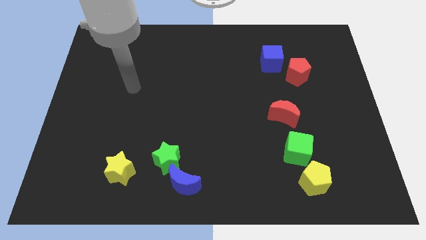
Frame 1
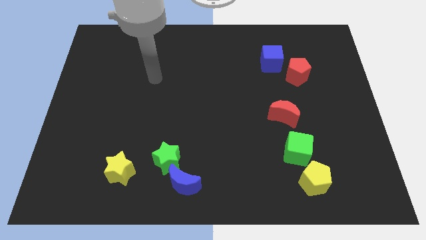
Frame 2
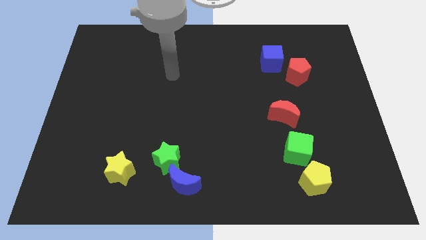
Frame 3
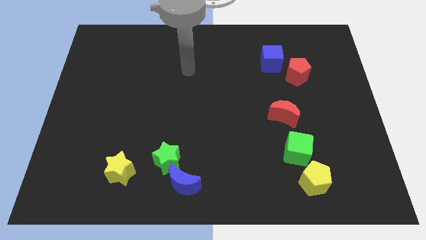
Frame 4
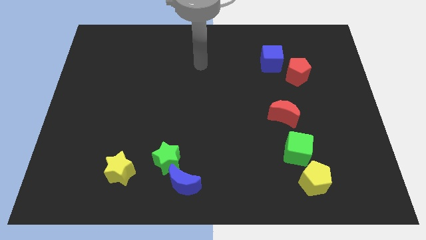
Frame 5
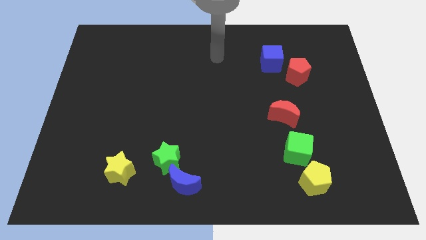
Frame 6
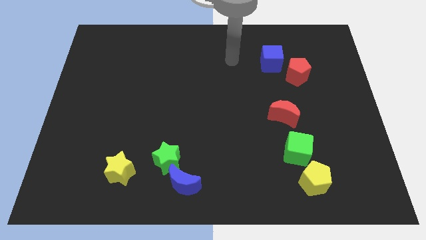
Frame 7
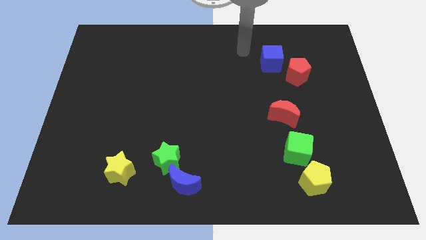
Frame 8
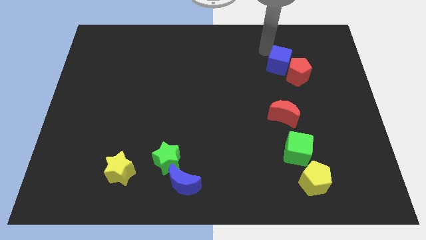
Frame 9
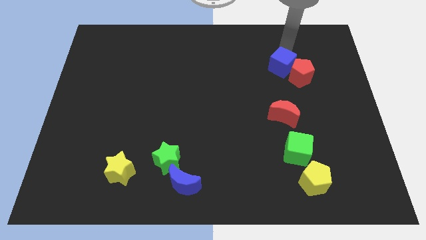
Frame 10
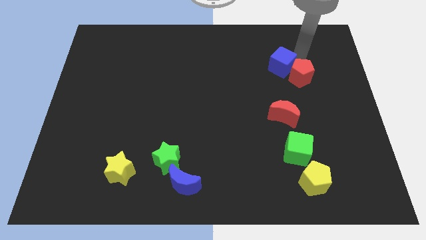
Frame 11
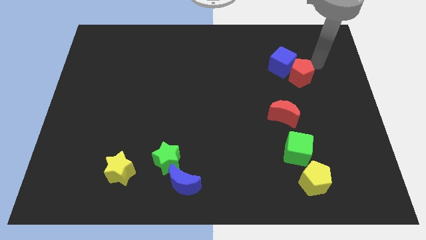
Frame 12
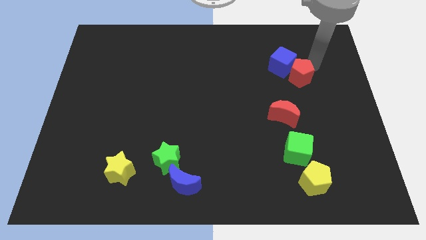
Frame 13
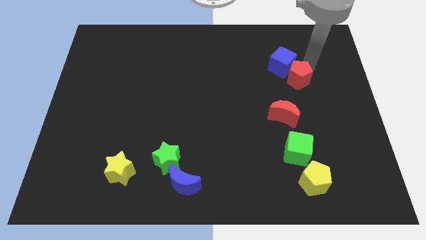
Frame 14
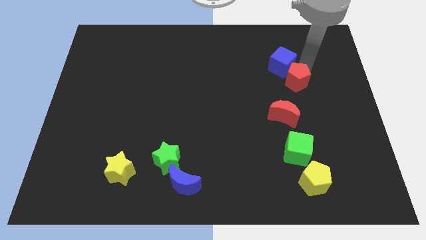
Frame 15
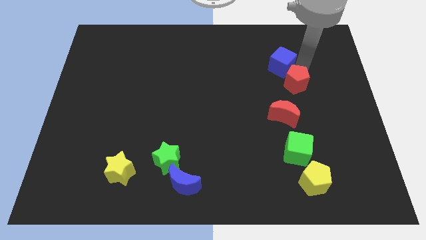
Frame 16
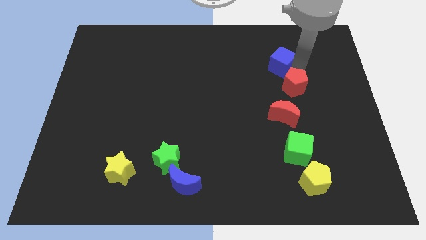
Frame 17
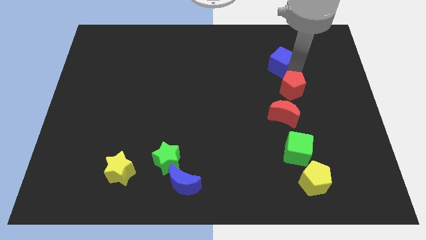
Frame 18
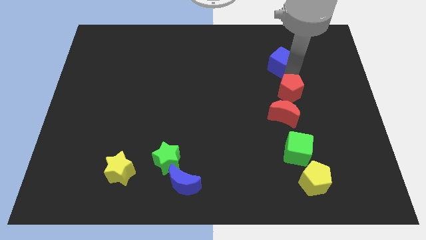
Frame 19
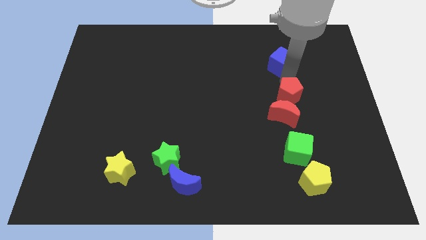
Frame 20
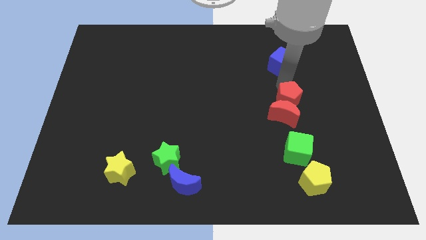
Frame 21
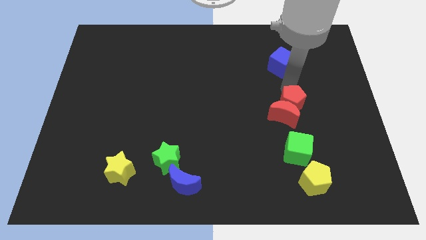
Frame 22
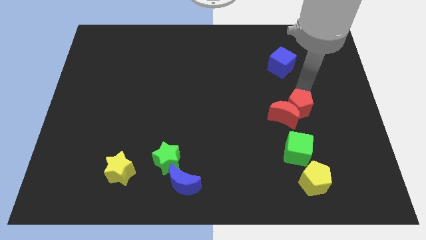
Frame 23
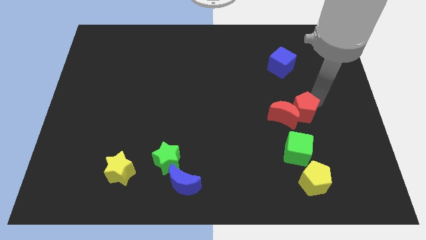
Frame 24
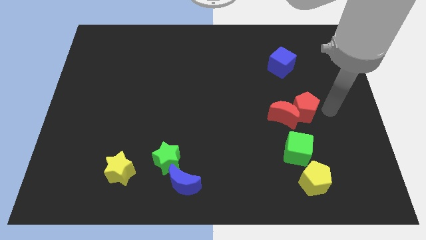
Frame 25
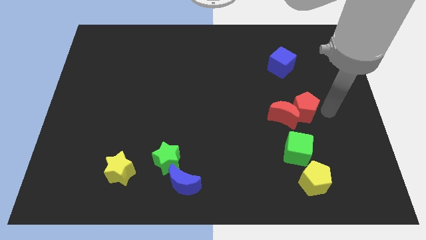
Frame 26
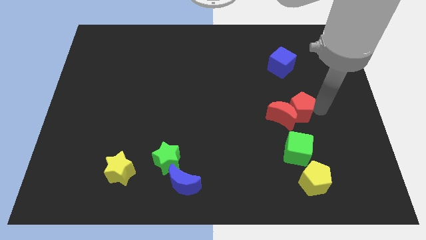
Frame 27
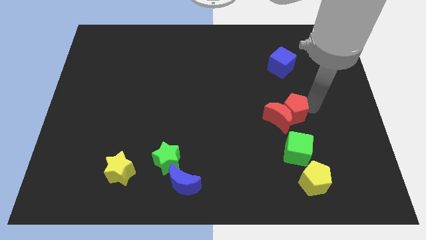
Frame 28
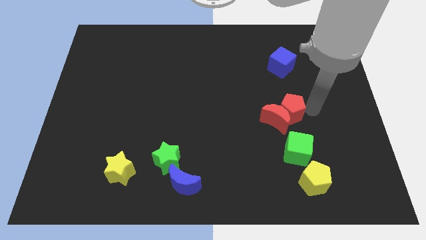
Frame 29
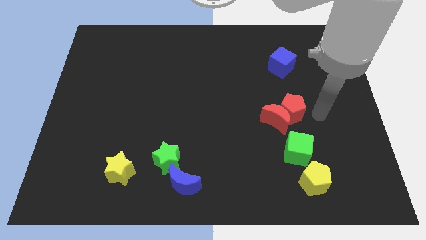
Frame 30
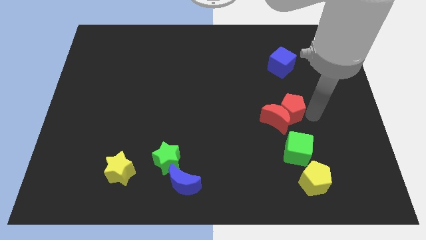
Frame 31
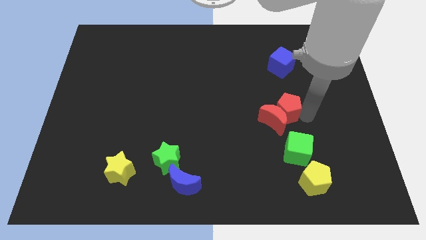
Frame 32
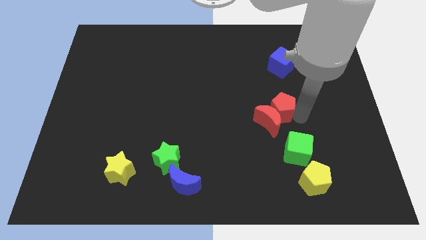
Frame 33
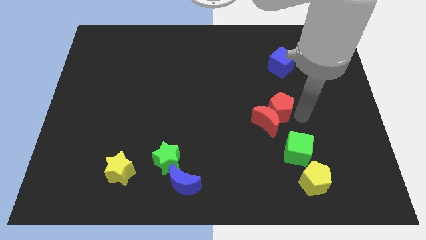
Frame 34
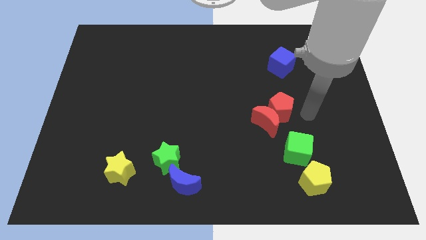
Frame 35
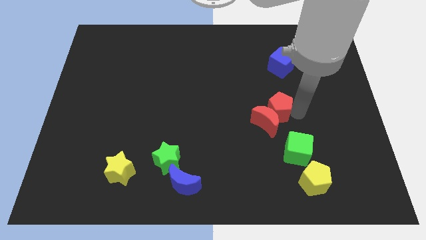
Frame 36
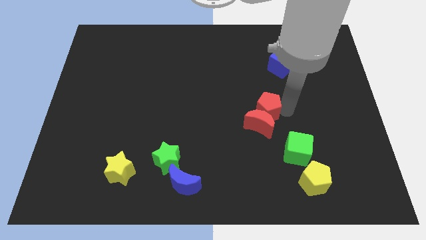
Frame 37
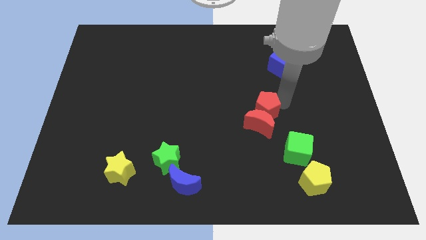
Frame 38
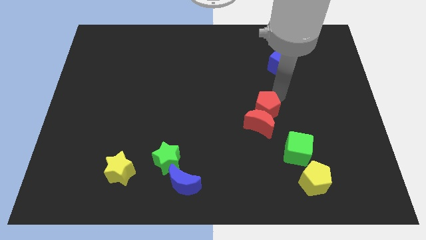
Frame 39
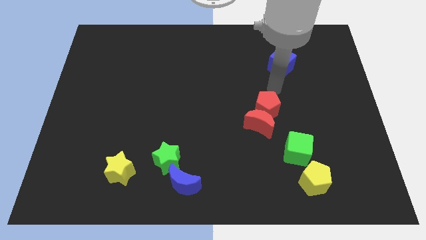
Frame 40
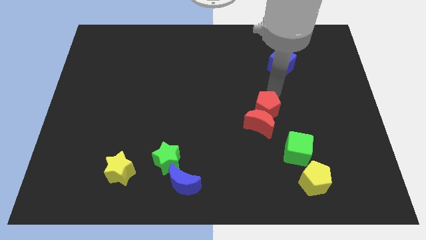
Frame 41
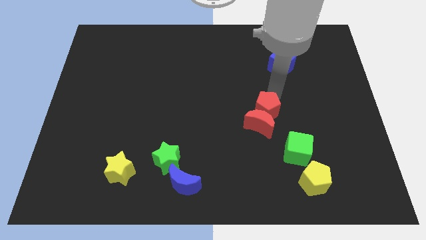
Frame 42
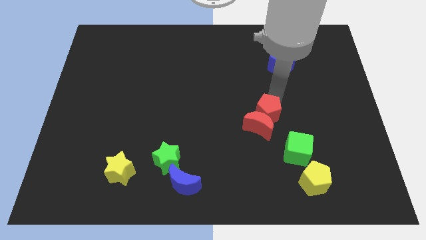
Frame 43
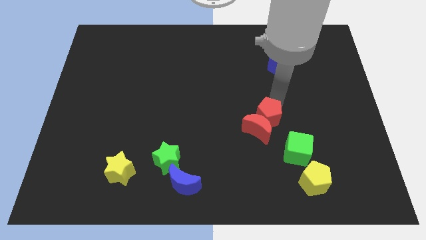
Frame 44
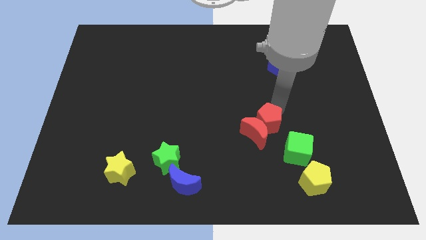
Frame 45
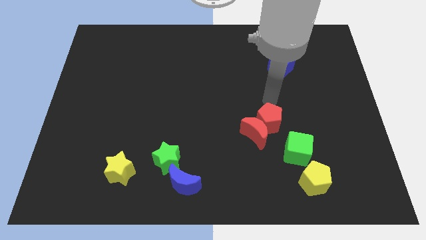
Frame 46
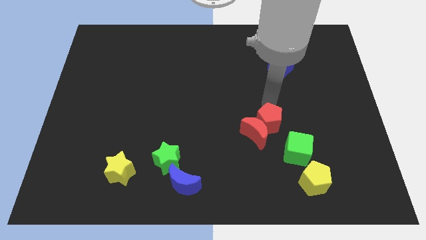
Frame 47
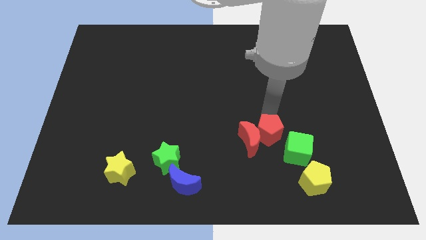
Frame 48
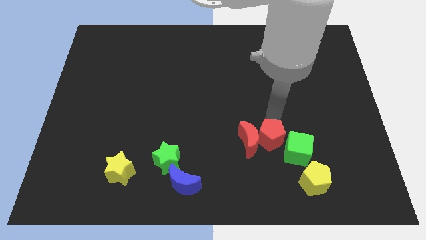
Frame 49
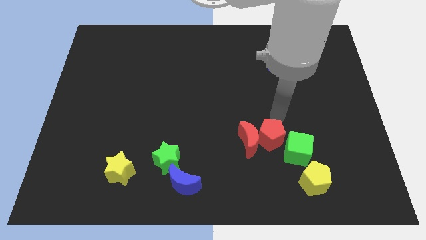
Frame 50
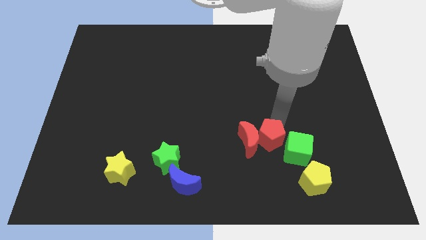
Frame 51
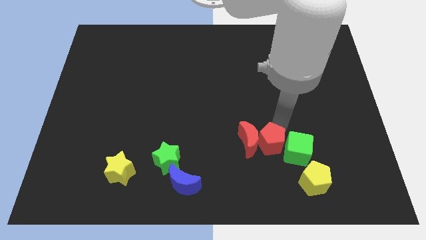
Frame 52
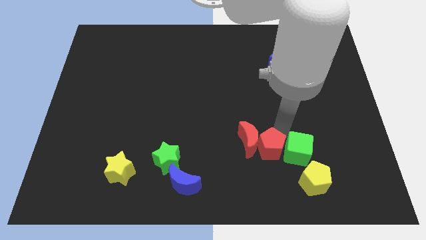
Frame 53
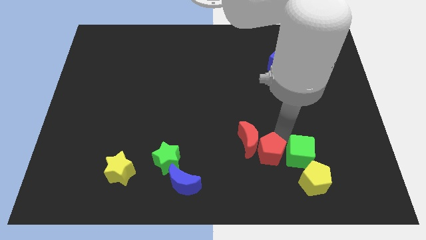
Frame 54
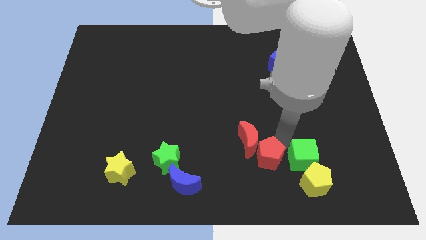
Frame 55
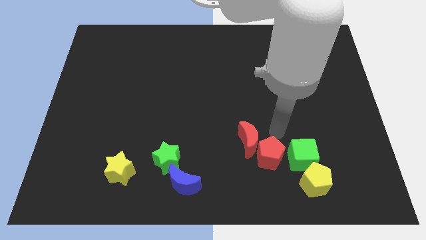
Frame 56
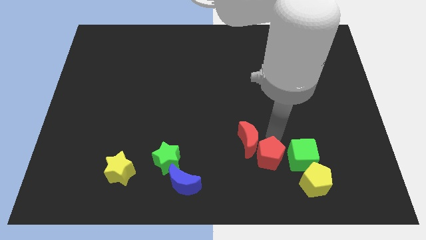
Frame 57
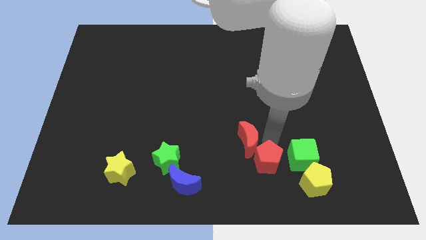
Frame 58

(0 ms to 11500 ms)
push the red pentagon left of the yellow pentagon

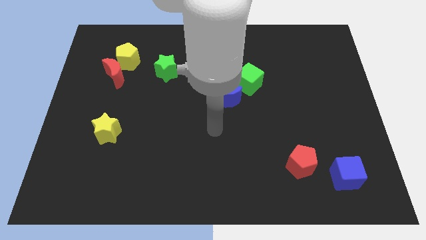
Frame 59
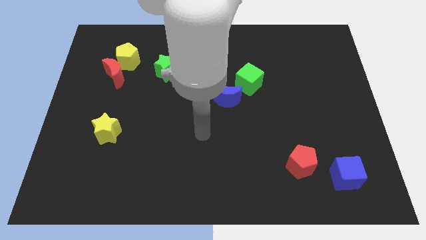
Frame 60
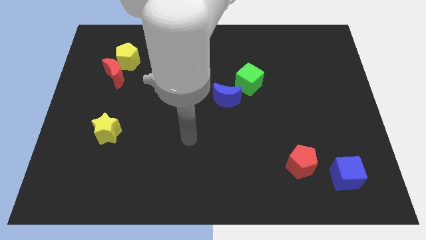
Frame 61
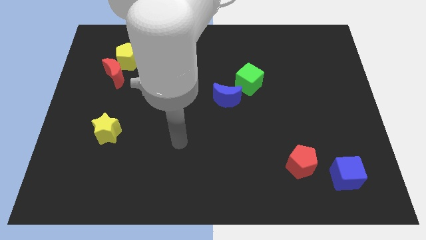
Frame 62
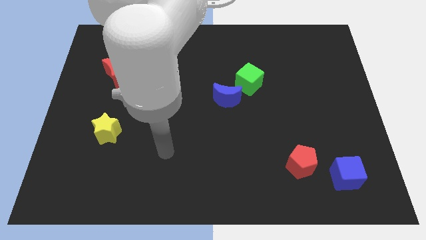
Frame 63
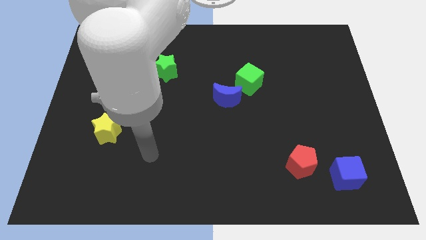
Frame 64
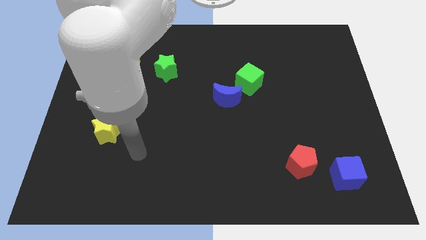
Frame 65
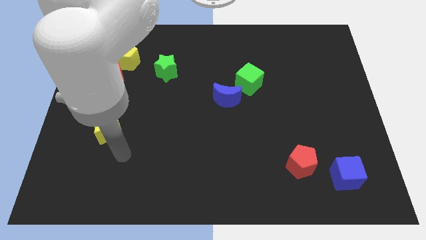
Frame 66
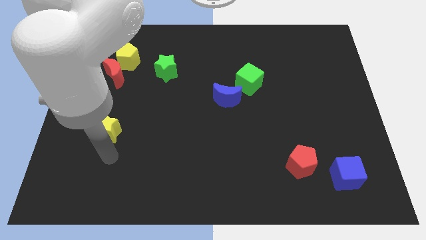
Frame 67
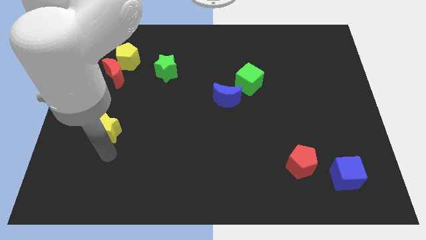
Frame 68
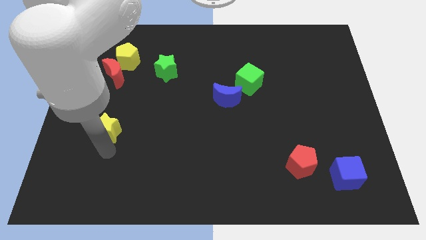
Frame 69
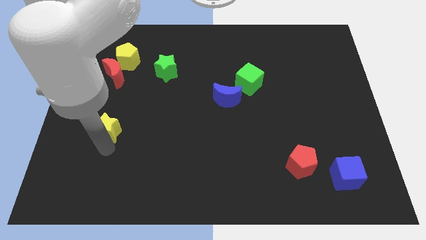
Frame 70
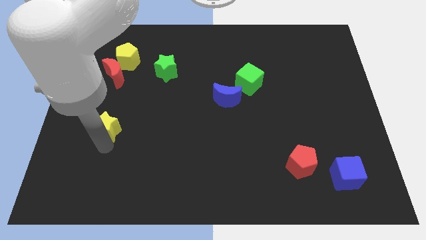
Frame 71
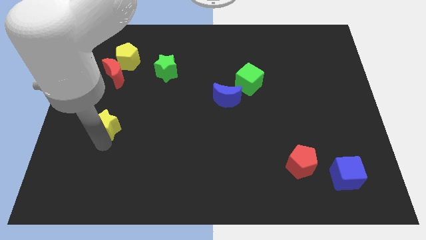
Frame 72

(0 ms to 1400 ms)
slide the yellow star below the red moon
